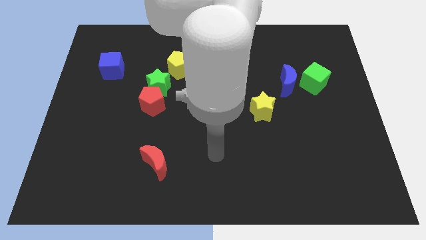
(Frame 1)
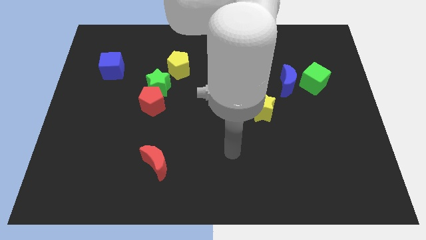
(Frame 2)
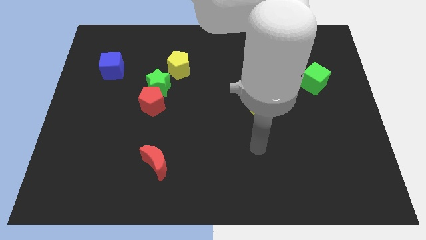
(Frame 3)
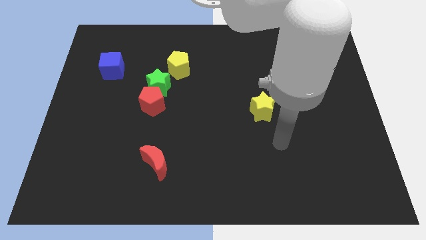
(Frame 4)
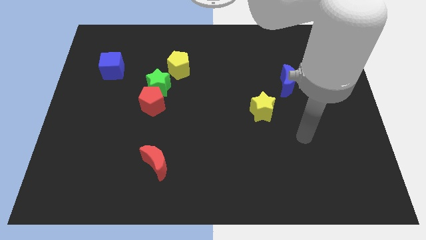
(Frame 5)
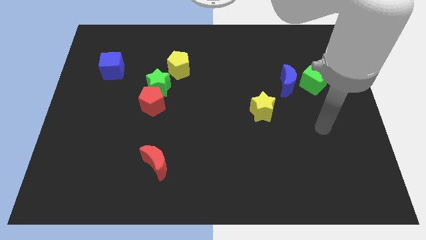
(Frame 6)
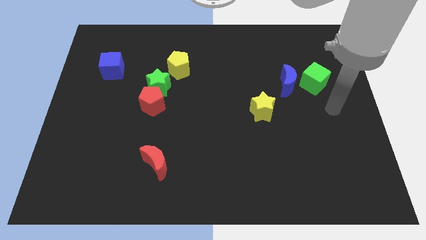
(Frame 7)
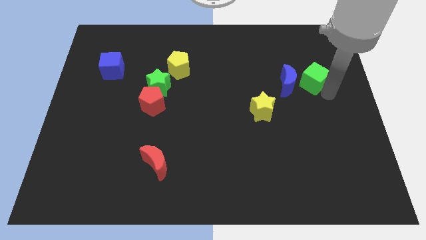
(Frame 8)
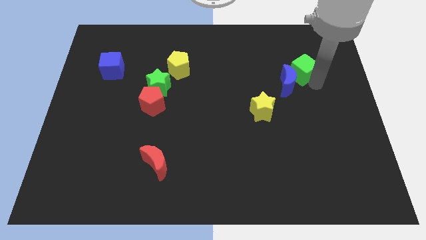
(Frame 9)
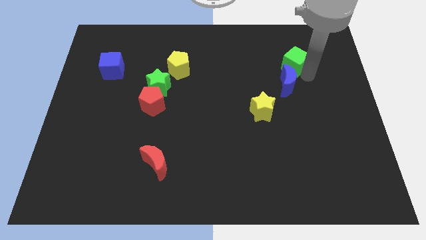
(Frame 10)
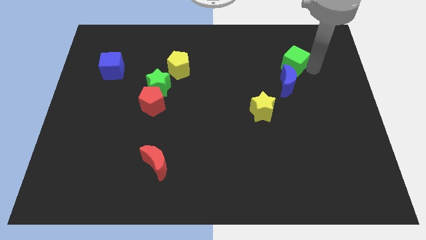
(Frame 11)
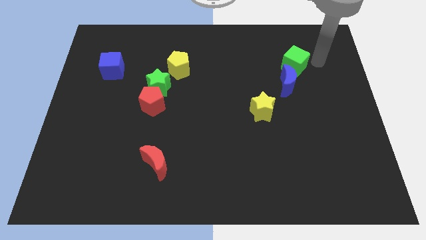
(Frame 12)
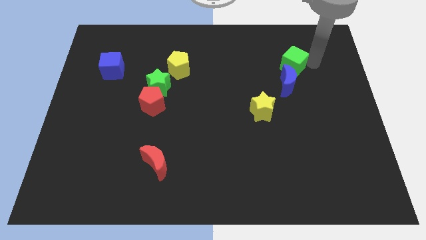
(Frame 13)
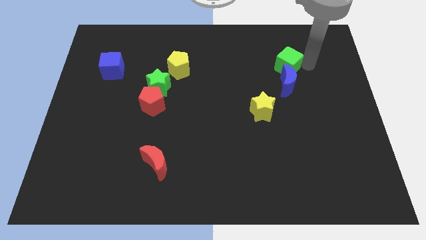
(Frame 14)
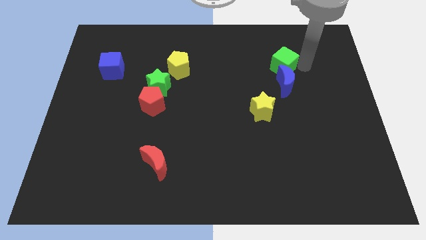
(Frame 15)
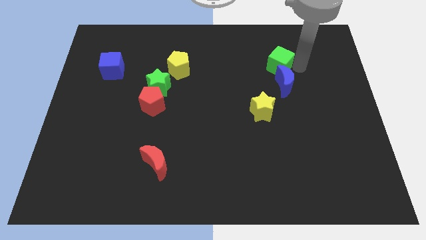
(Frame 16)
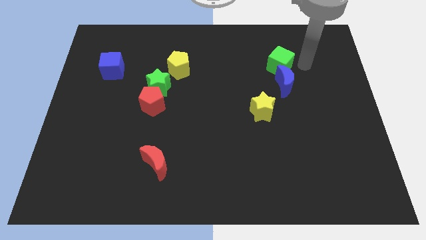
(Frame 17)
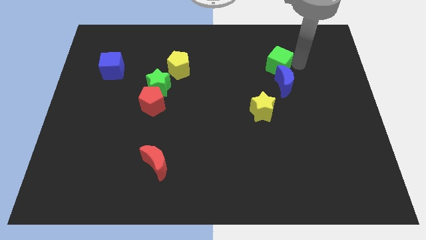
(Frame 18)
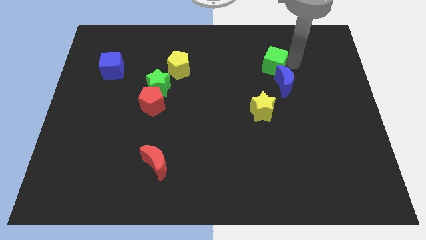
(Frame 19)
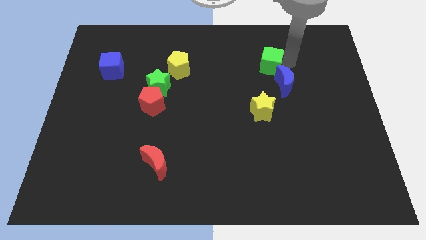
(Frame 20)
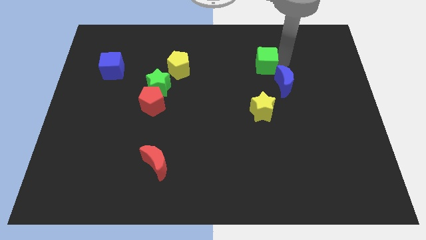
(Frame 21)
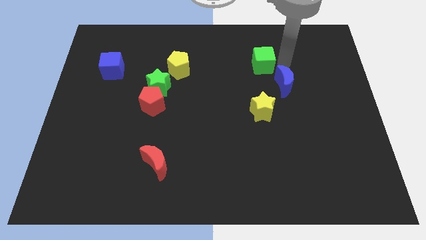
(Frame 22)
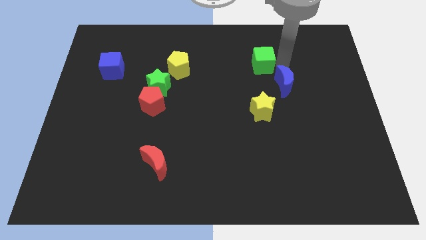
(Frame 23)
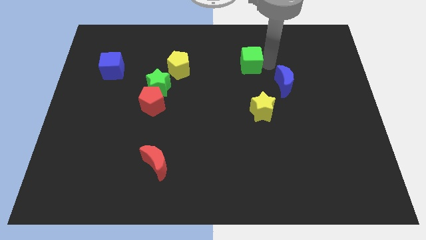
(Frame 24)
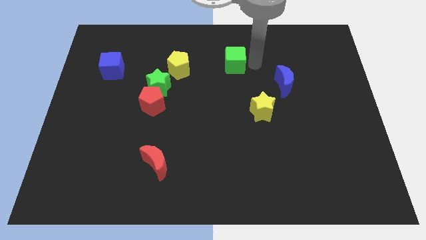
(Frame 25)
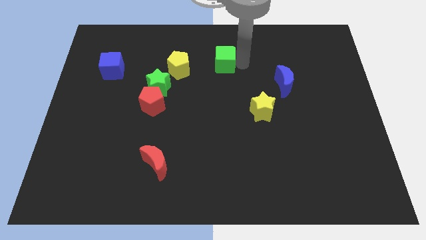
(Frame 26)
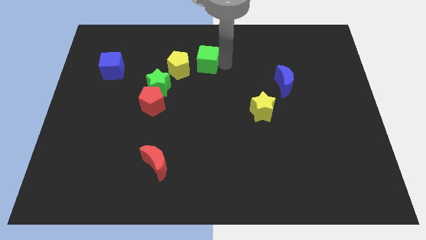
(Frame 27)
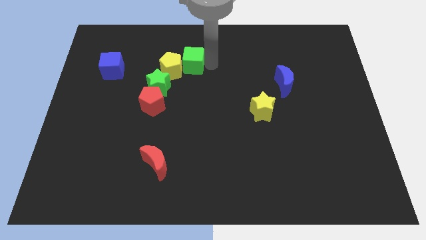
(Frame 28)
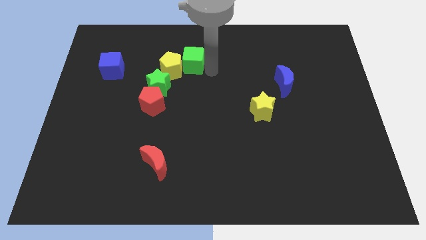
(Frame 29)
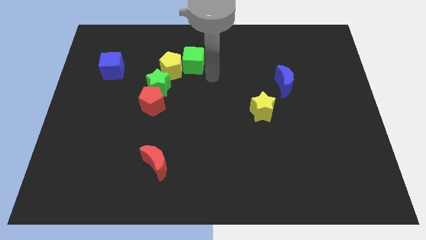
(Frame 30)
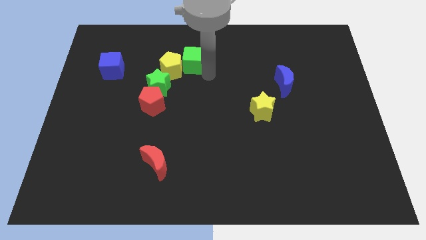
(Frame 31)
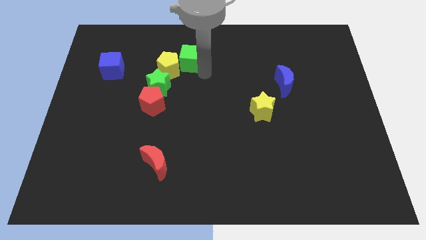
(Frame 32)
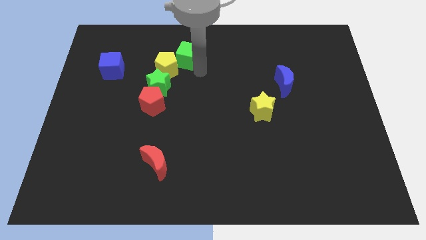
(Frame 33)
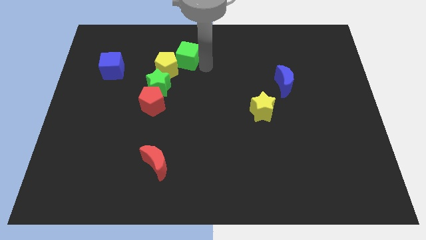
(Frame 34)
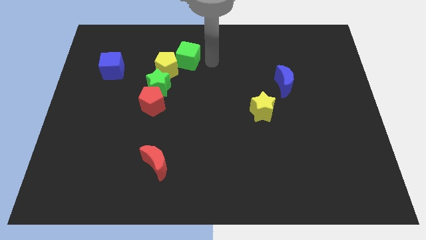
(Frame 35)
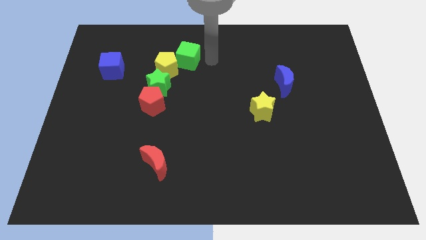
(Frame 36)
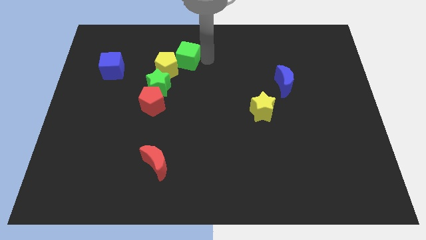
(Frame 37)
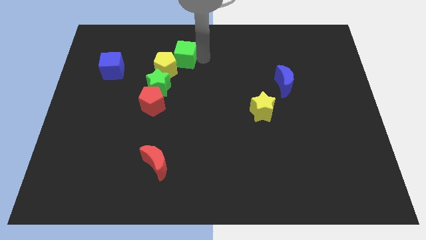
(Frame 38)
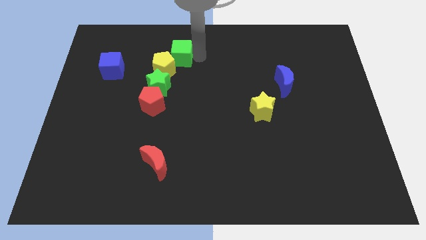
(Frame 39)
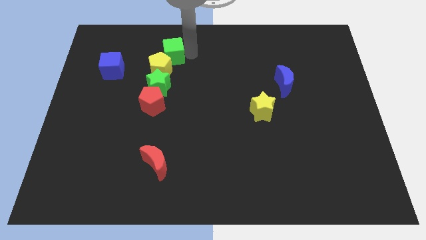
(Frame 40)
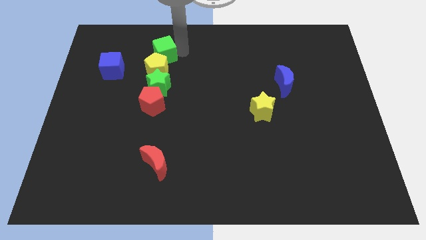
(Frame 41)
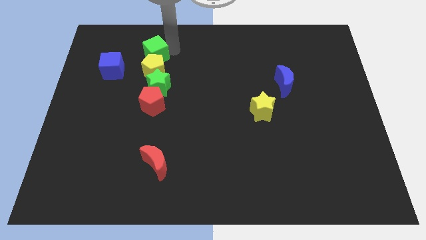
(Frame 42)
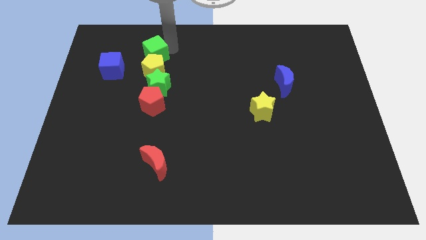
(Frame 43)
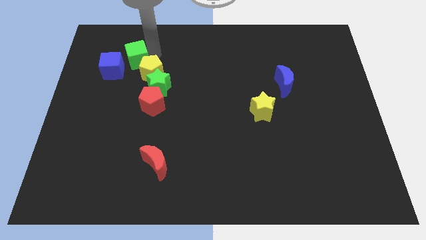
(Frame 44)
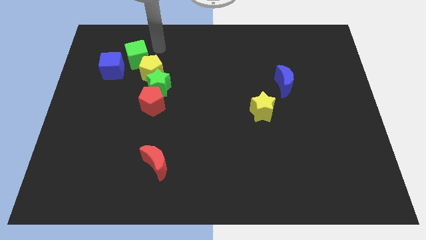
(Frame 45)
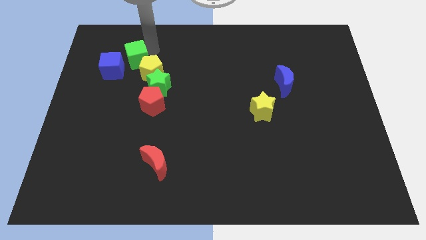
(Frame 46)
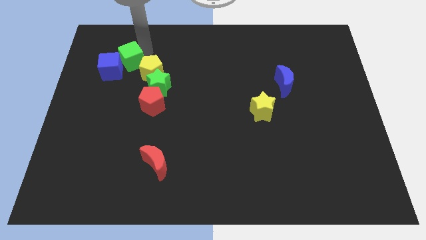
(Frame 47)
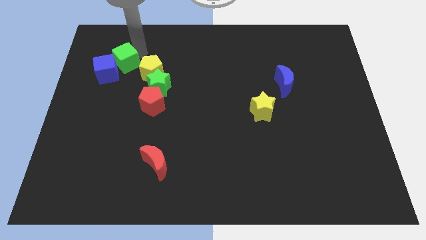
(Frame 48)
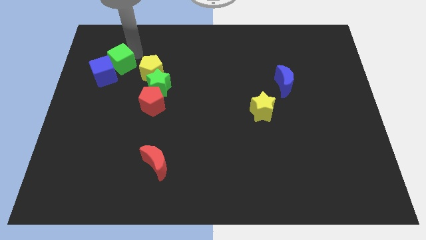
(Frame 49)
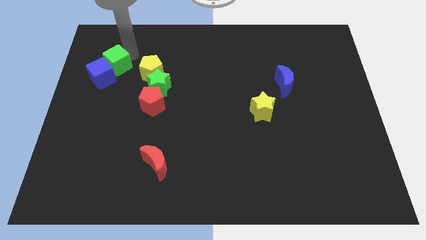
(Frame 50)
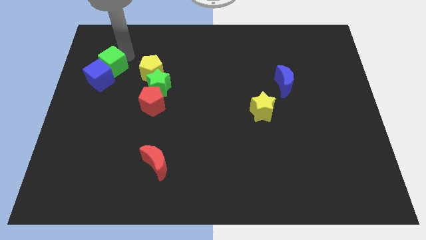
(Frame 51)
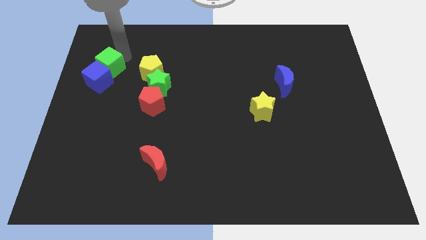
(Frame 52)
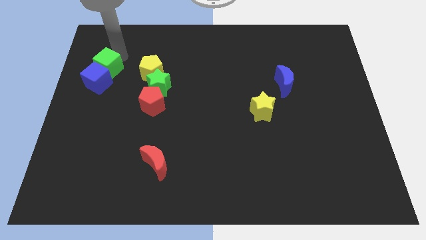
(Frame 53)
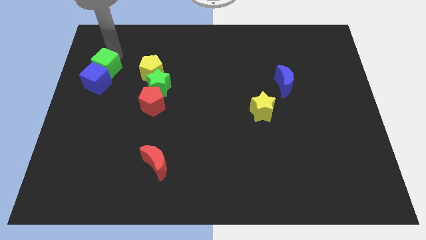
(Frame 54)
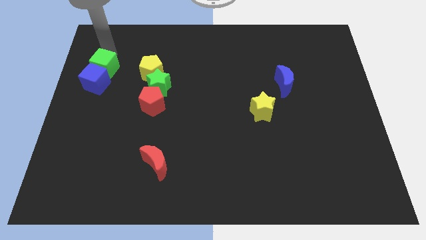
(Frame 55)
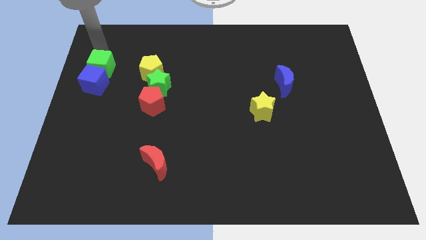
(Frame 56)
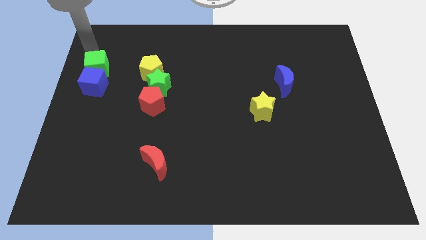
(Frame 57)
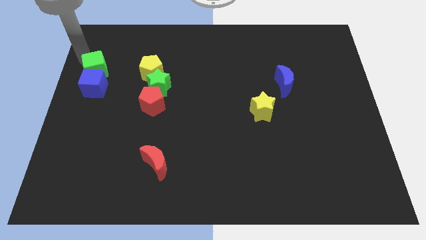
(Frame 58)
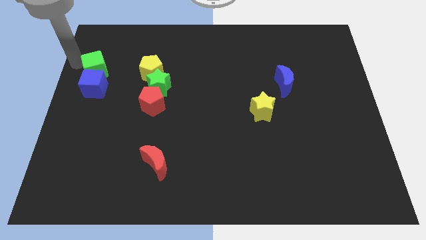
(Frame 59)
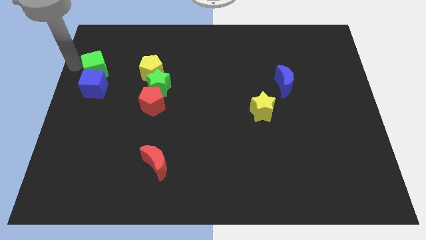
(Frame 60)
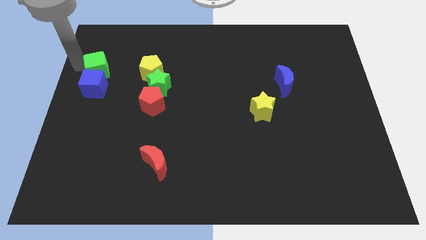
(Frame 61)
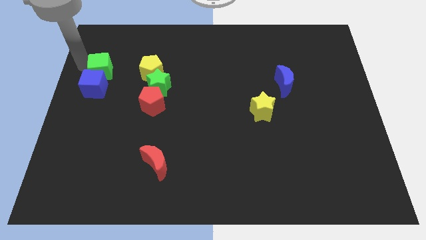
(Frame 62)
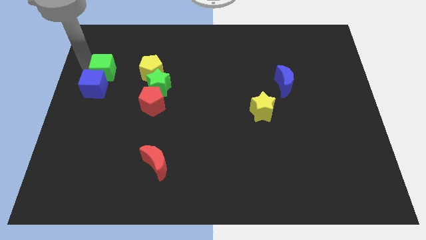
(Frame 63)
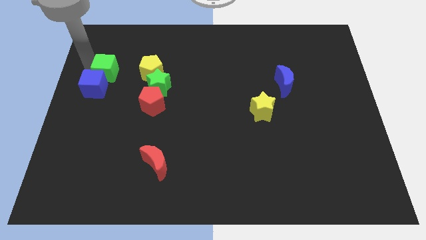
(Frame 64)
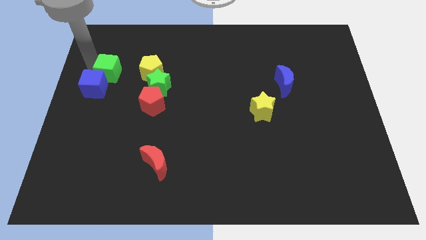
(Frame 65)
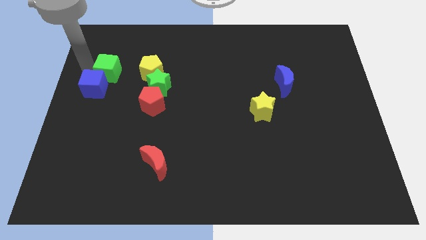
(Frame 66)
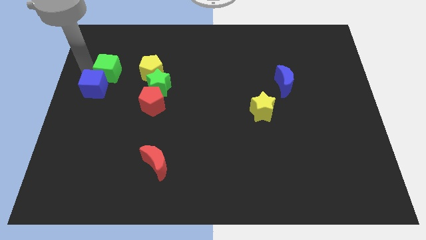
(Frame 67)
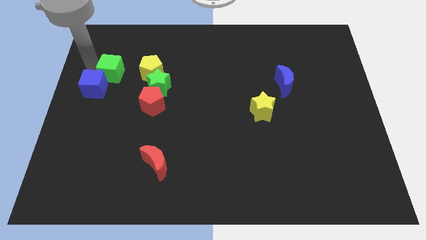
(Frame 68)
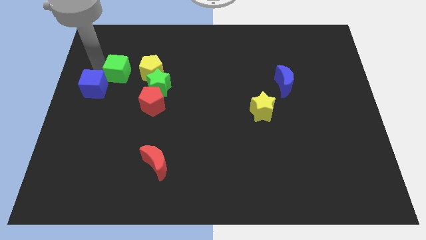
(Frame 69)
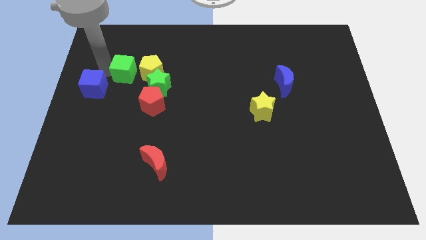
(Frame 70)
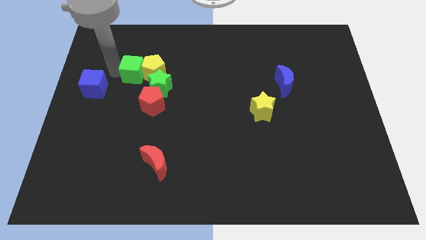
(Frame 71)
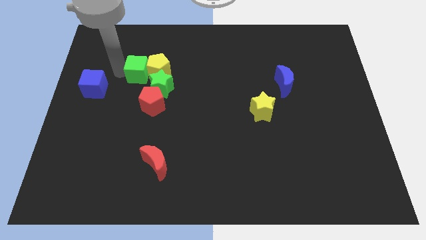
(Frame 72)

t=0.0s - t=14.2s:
push the green cube to the left of the yellow pentagon
